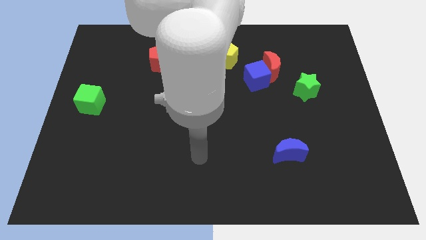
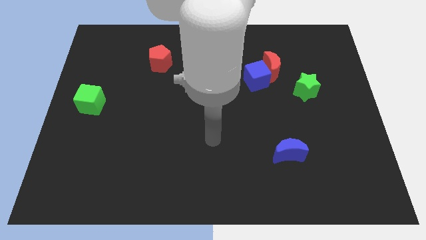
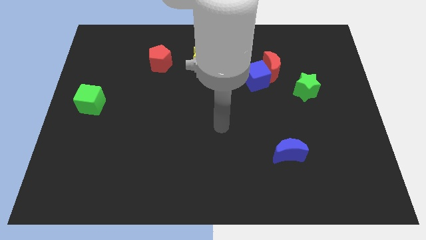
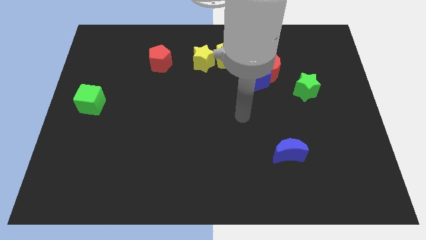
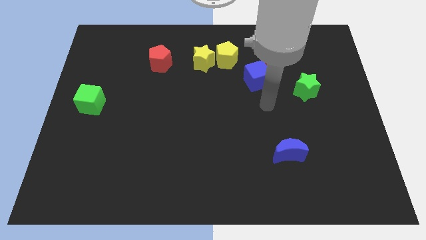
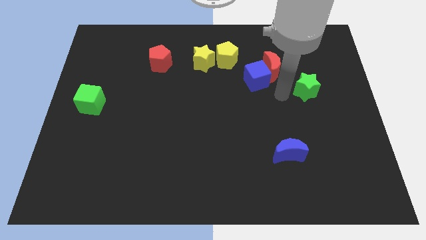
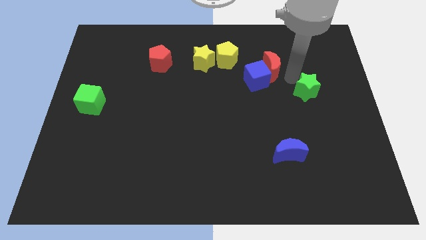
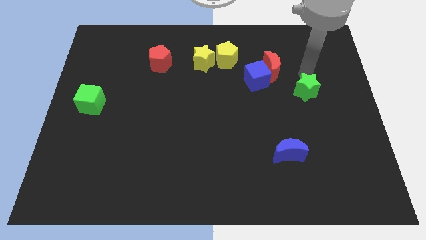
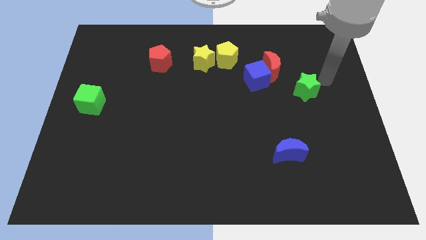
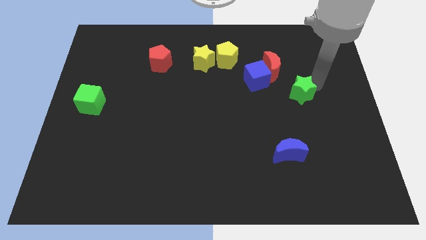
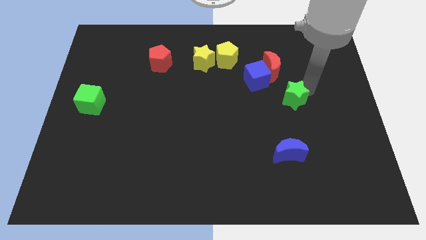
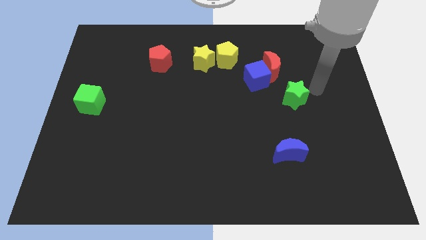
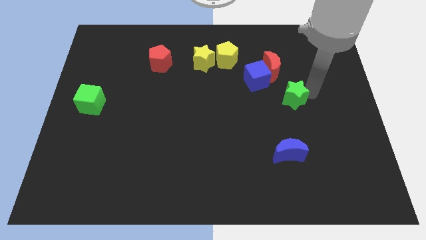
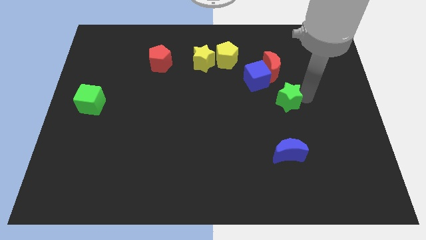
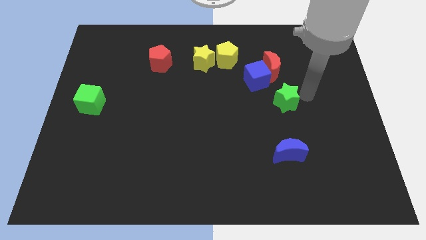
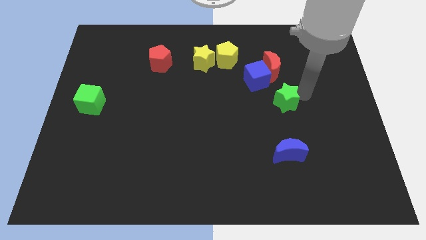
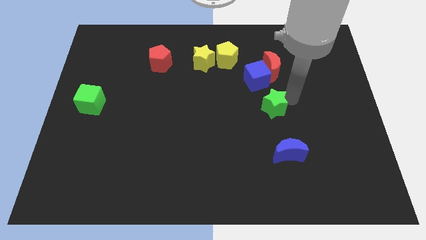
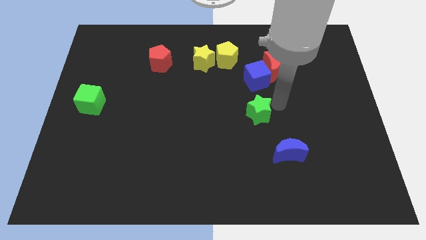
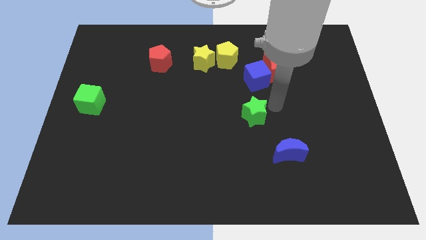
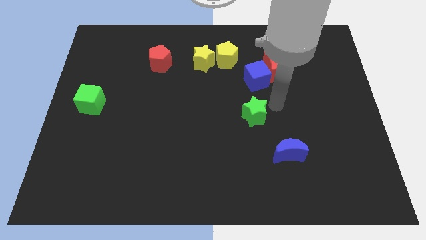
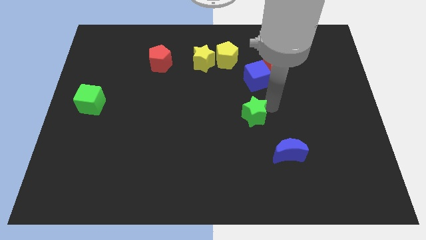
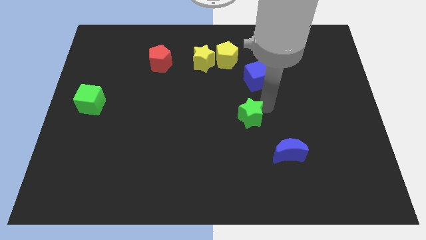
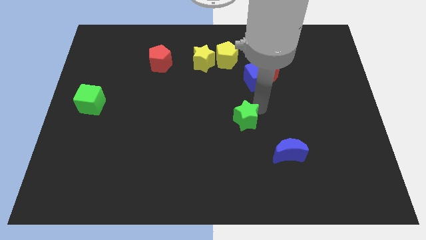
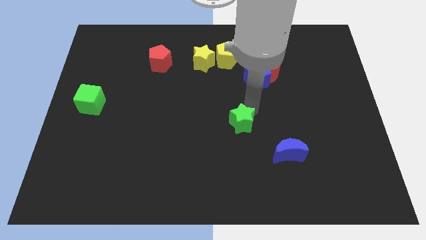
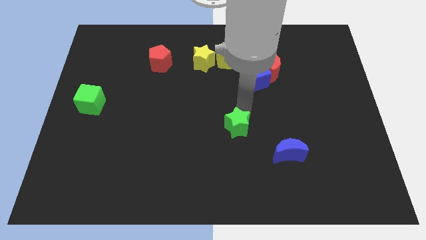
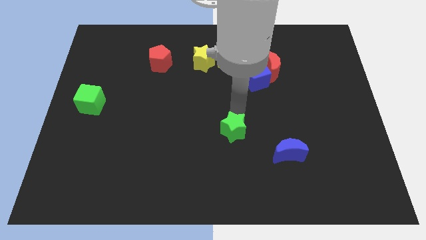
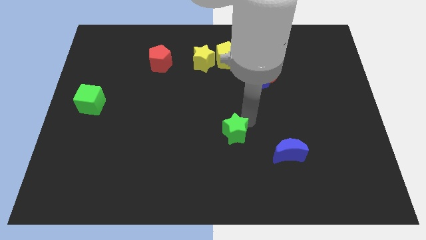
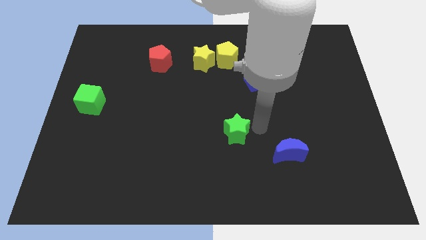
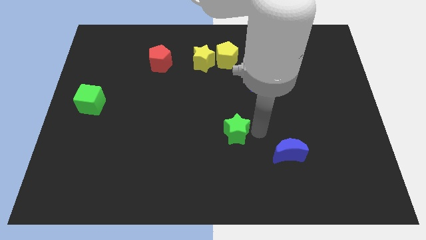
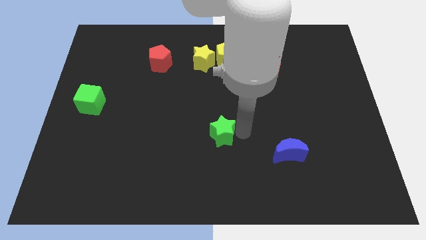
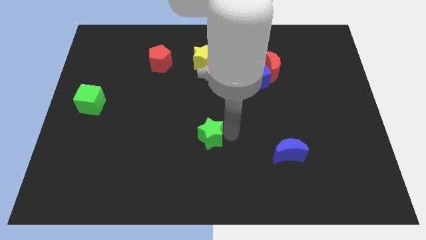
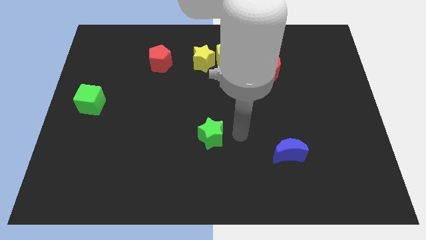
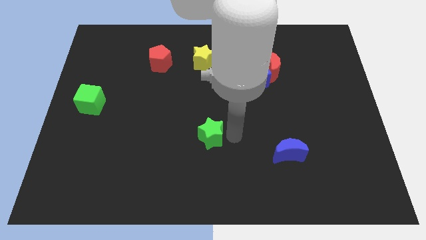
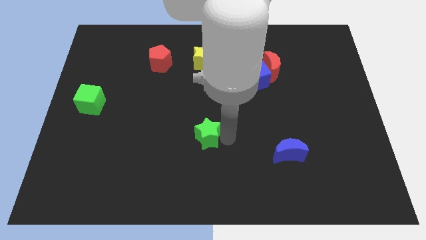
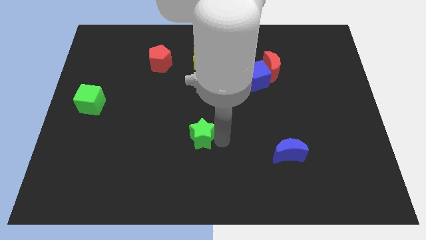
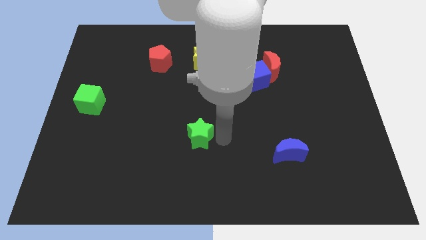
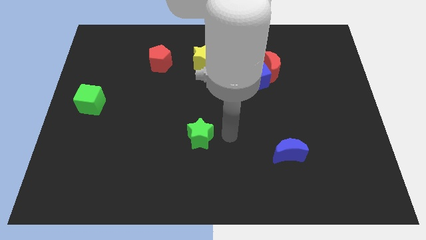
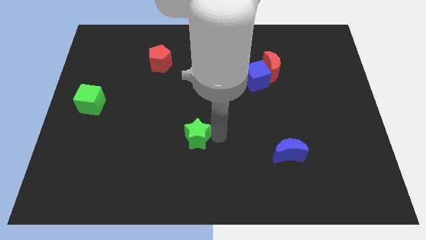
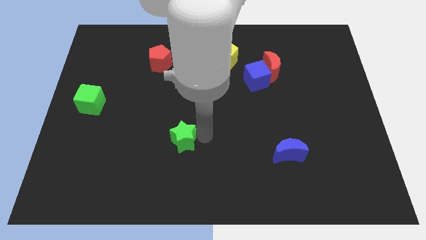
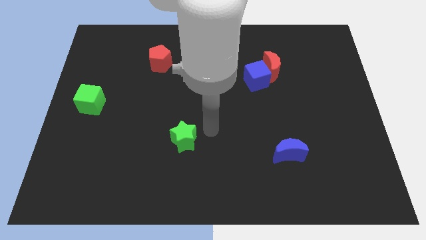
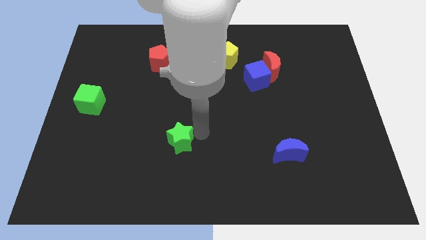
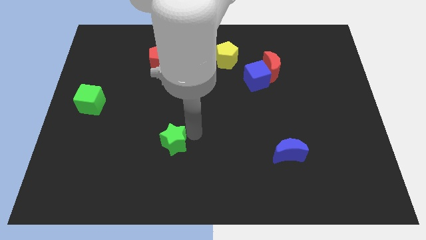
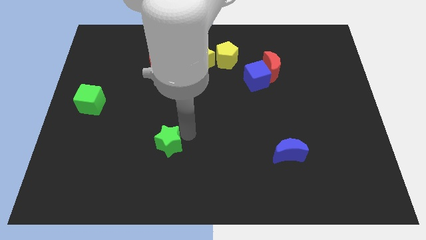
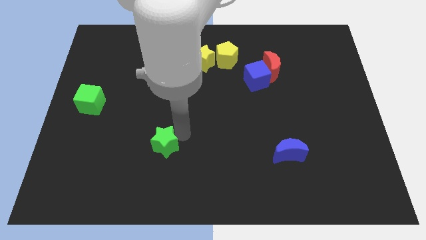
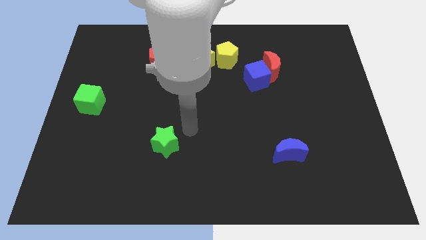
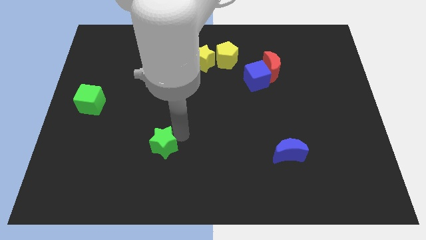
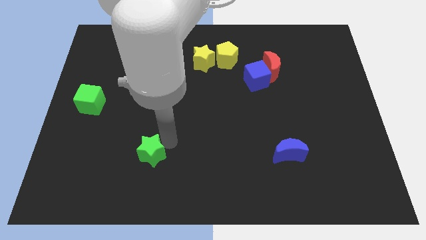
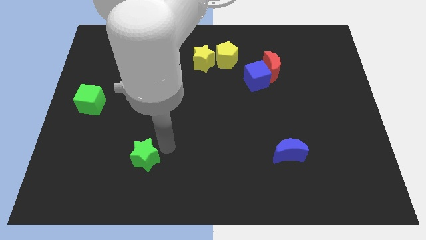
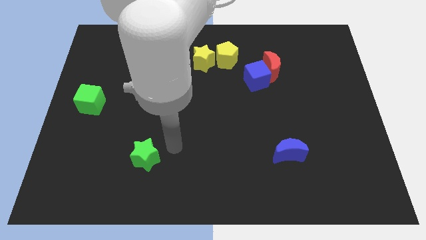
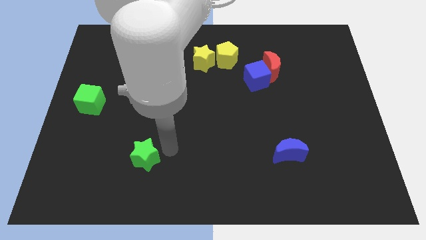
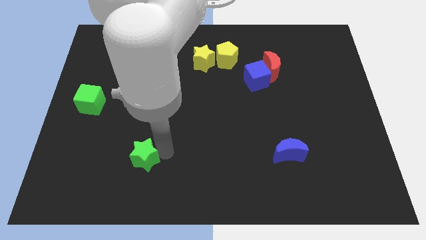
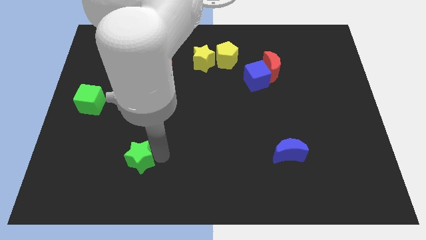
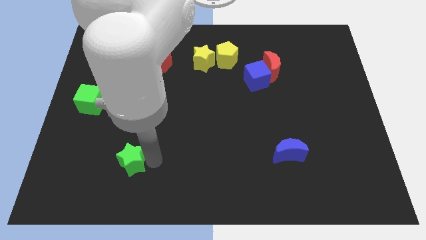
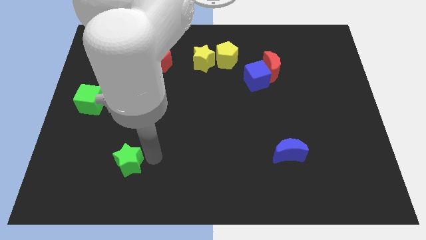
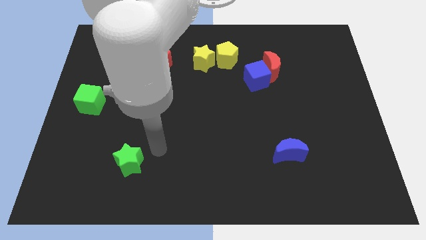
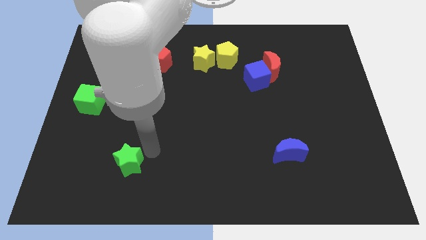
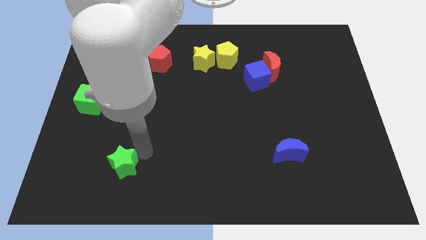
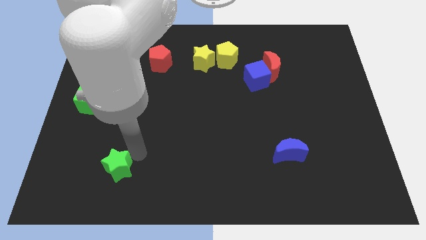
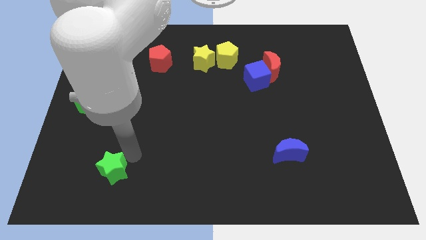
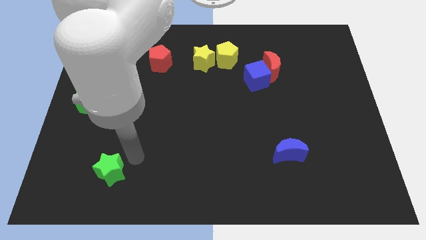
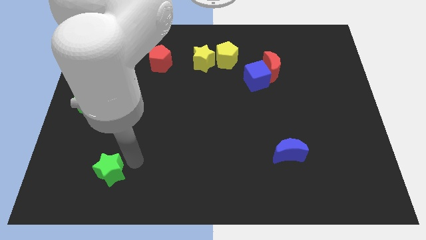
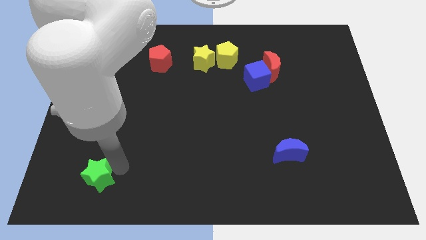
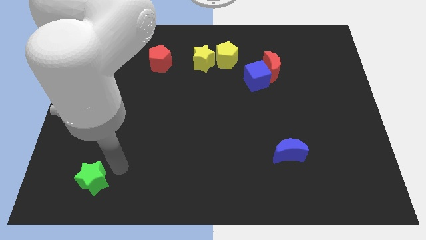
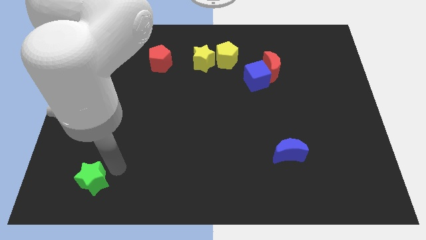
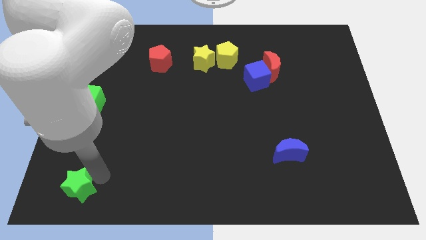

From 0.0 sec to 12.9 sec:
push the green star to the bottom left corner

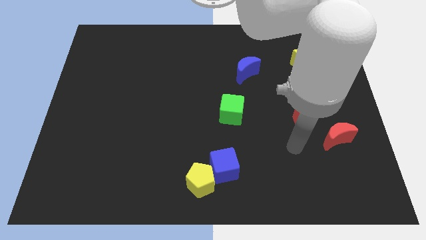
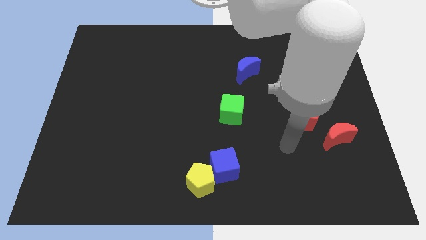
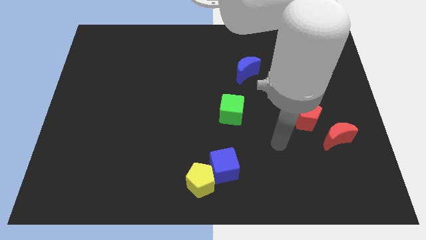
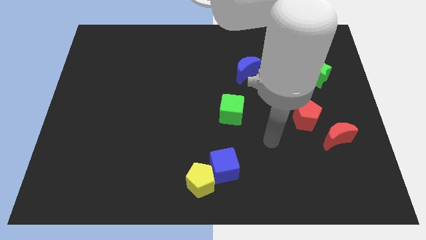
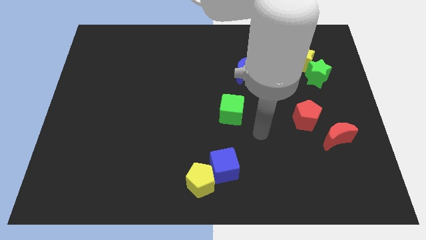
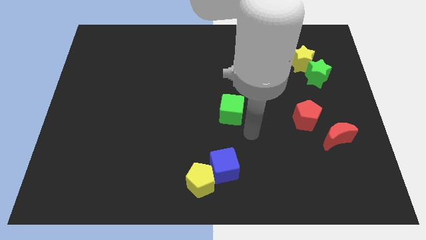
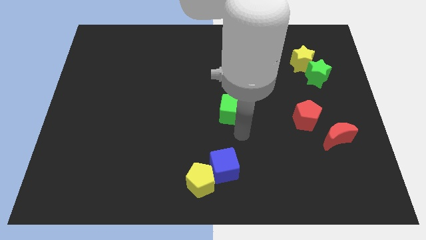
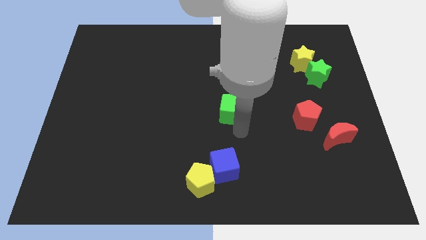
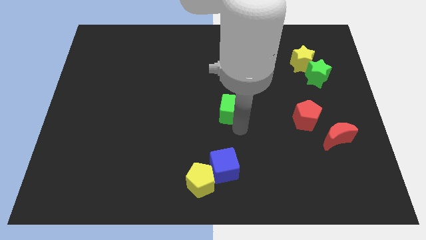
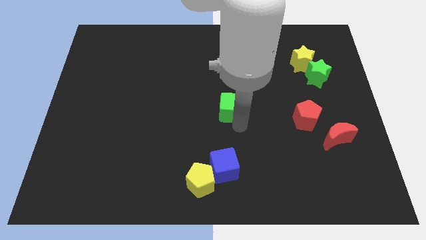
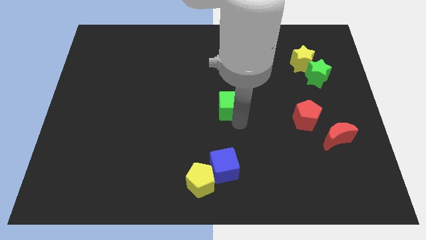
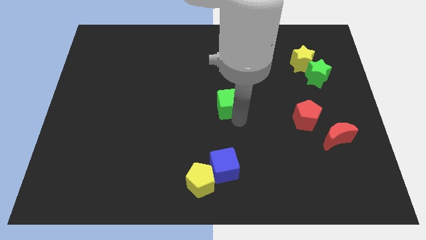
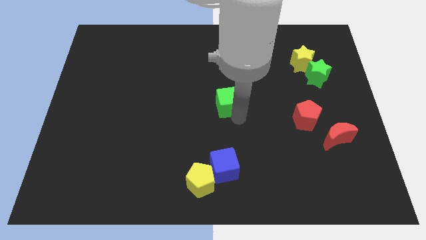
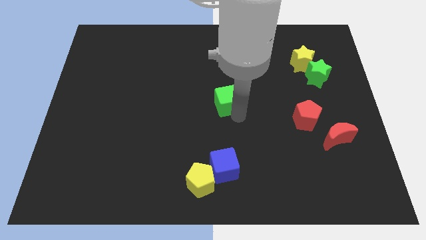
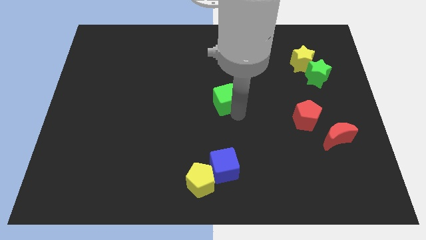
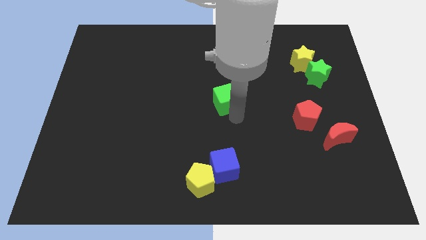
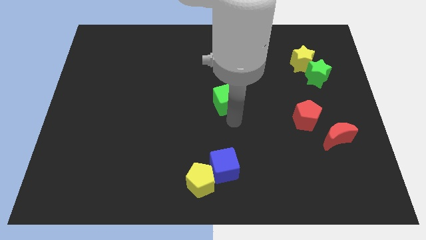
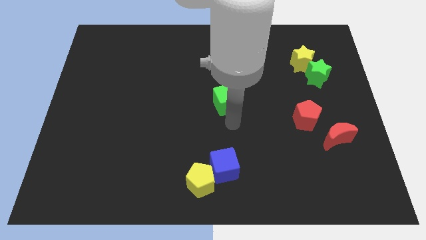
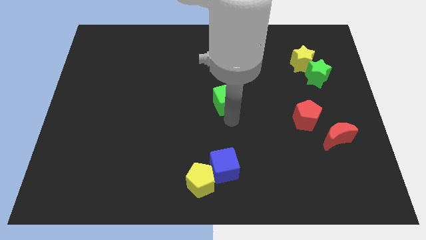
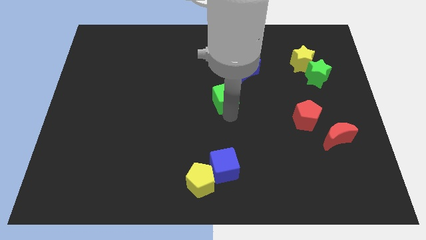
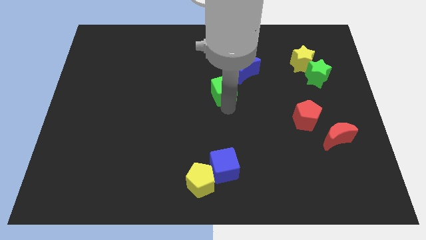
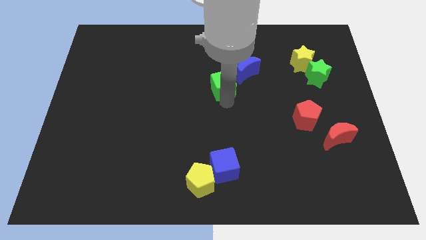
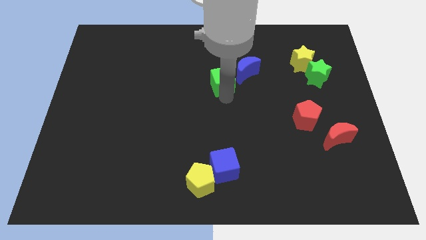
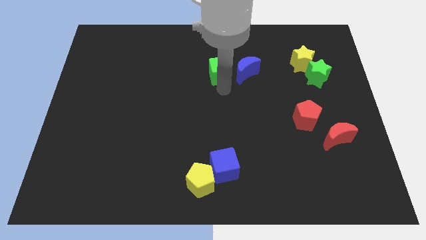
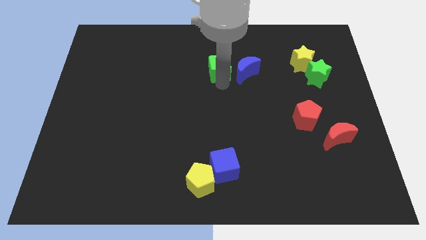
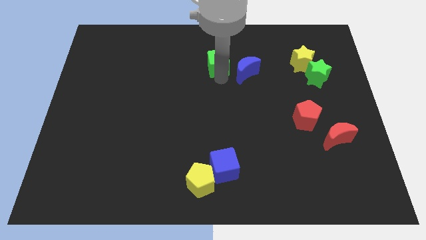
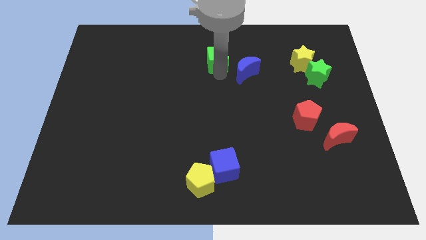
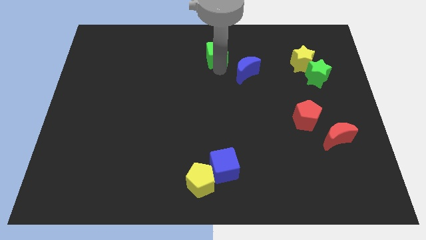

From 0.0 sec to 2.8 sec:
move the green cube to the towards your base
